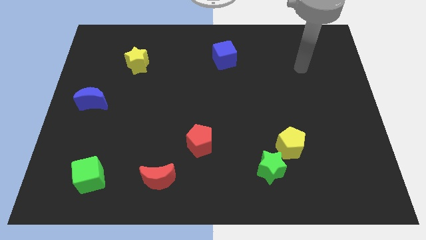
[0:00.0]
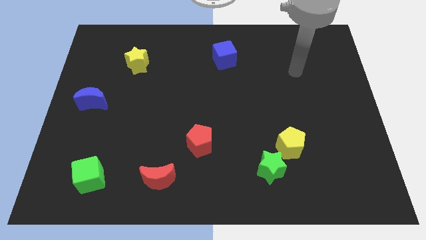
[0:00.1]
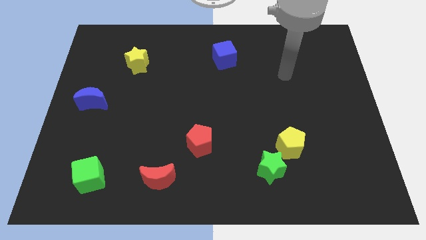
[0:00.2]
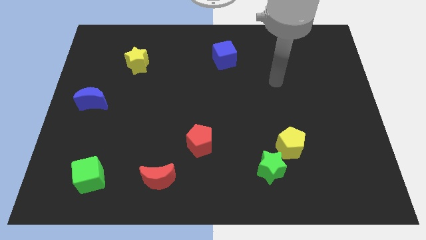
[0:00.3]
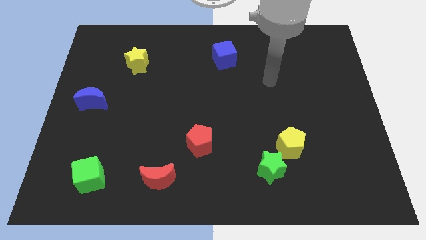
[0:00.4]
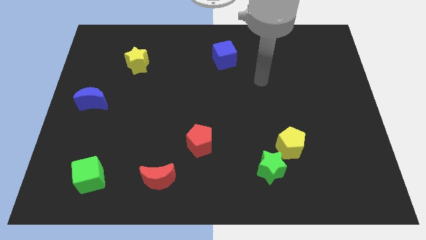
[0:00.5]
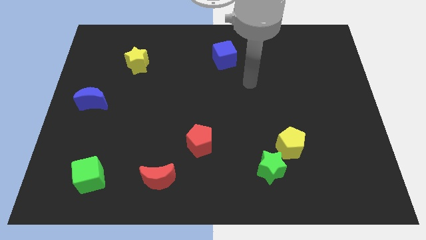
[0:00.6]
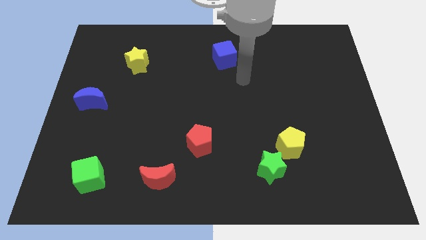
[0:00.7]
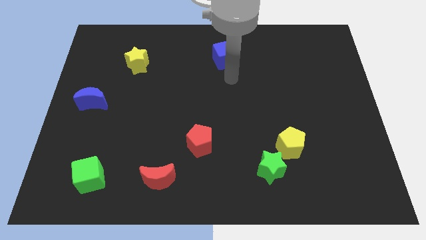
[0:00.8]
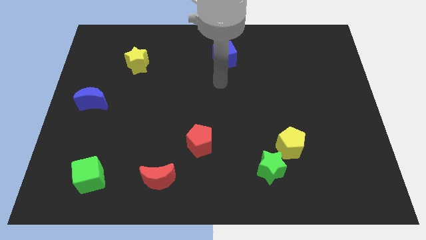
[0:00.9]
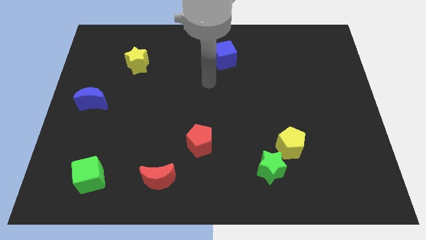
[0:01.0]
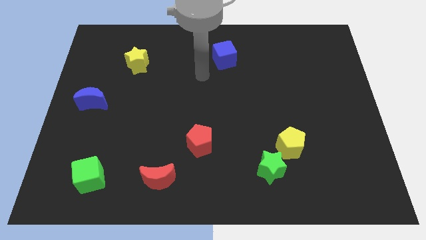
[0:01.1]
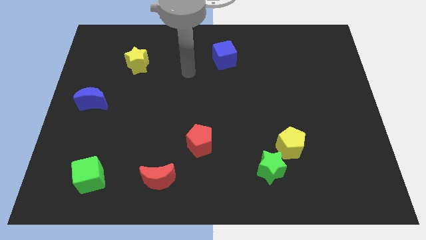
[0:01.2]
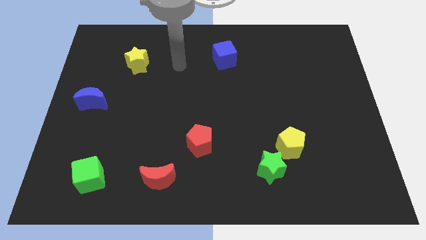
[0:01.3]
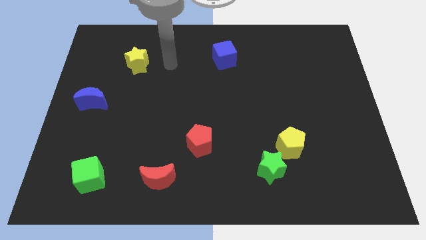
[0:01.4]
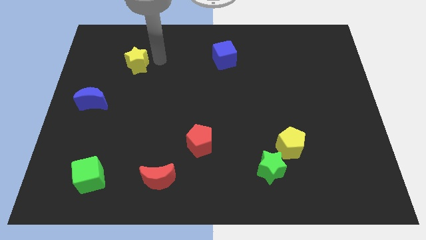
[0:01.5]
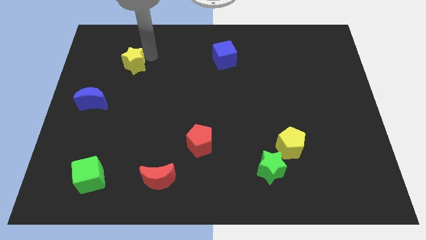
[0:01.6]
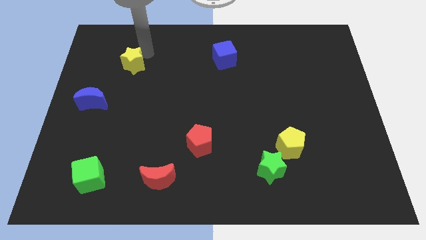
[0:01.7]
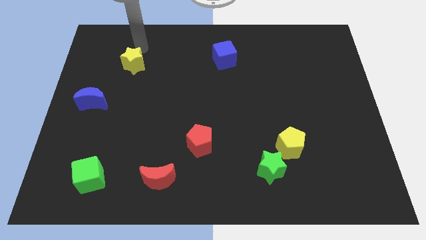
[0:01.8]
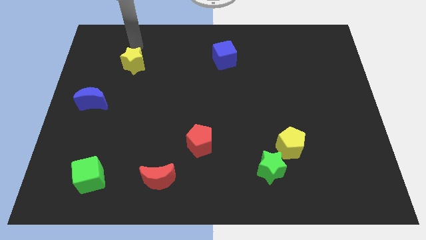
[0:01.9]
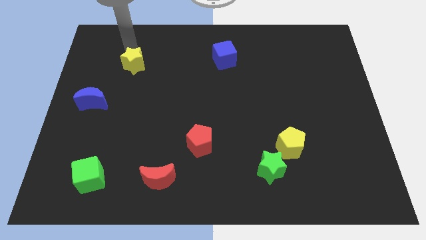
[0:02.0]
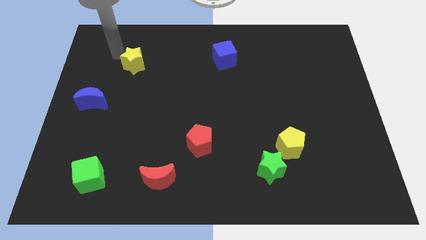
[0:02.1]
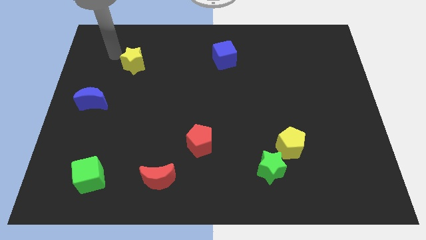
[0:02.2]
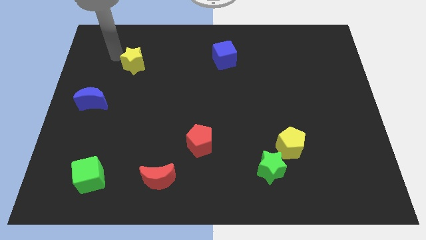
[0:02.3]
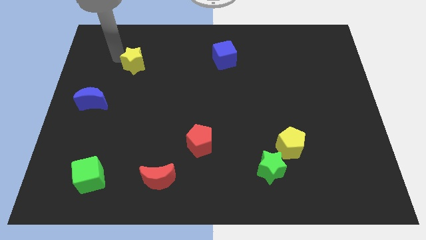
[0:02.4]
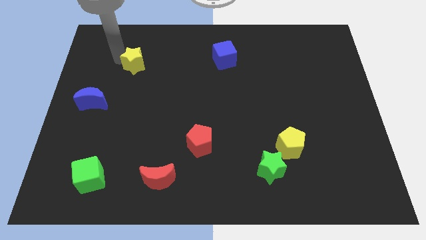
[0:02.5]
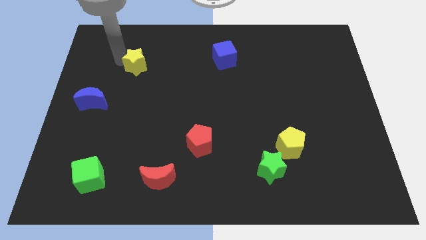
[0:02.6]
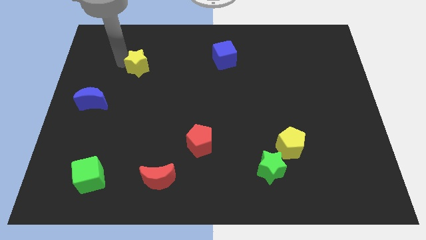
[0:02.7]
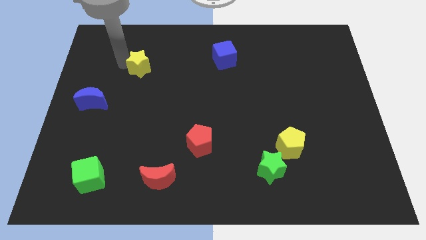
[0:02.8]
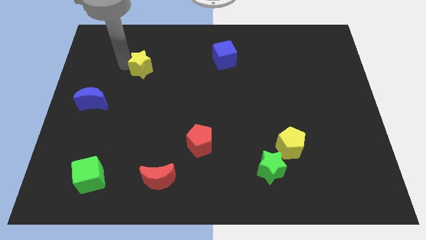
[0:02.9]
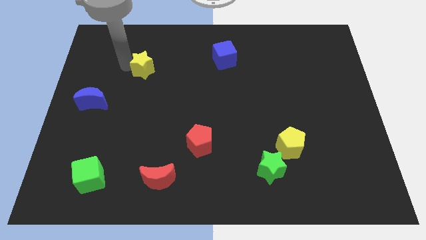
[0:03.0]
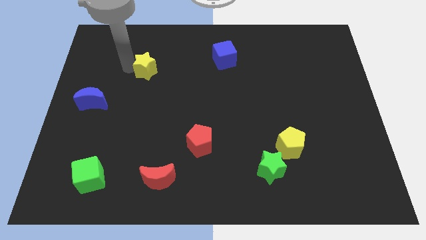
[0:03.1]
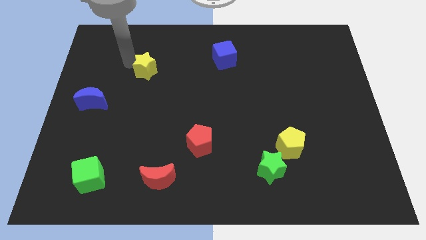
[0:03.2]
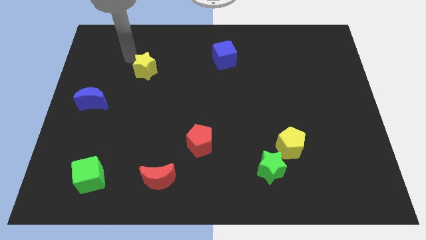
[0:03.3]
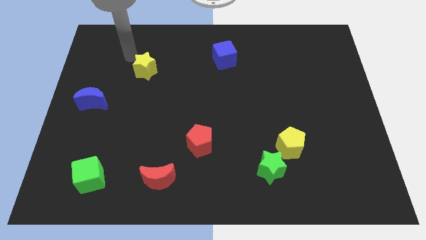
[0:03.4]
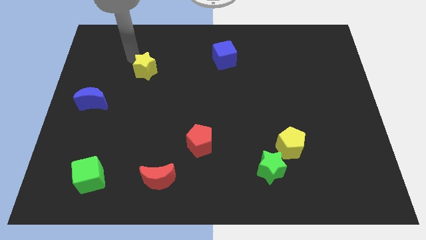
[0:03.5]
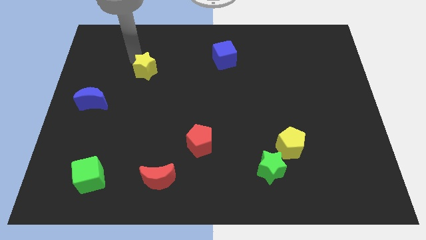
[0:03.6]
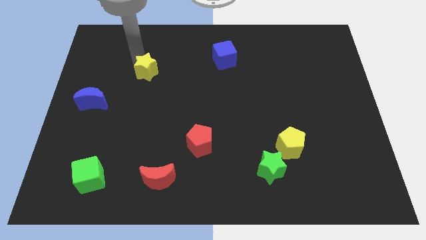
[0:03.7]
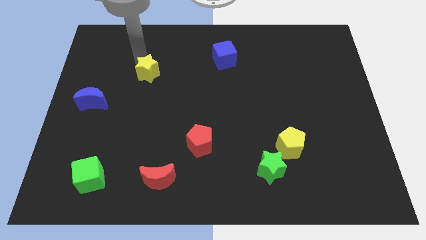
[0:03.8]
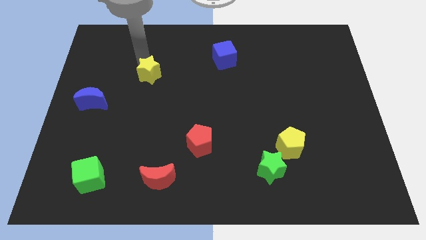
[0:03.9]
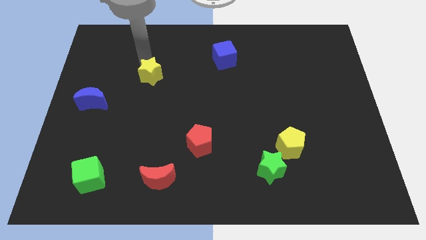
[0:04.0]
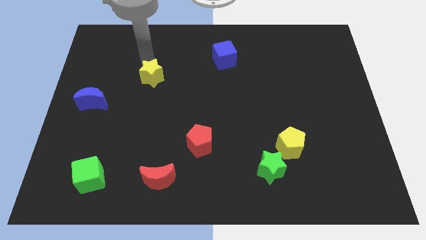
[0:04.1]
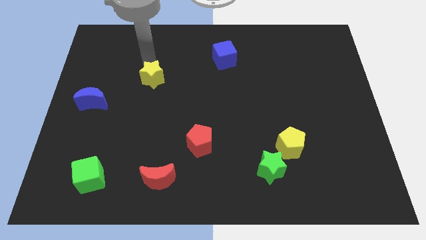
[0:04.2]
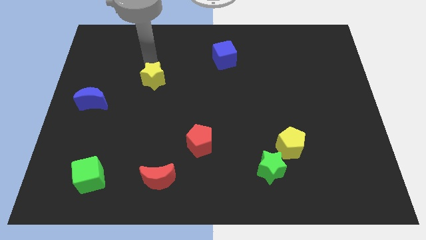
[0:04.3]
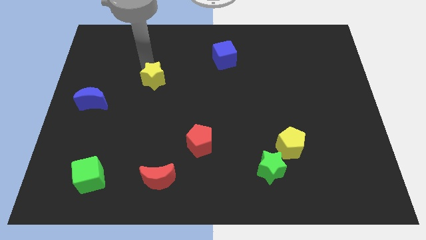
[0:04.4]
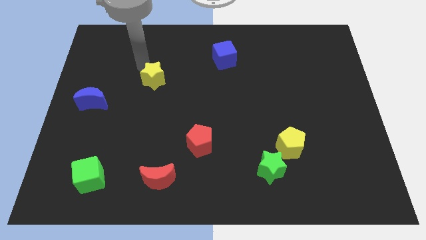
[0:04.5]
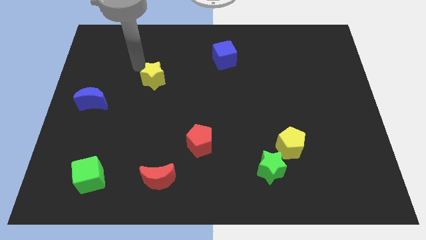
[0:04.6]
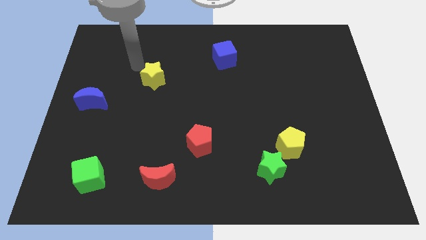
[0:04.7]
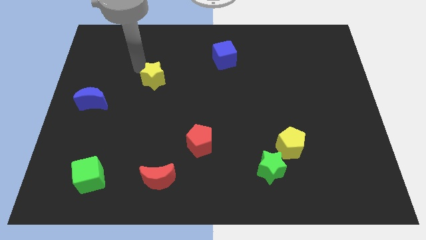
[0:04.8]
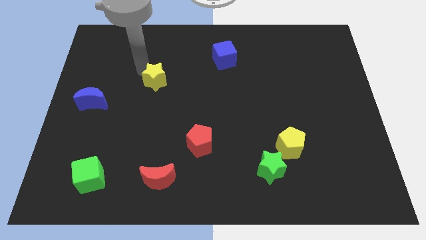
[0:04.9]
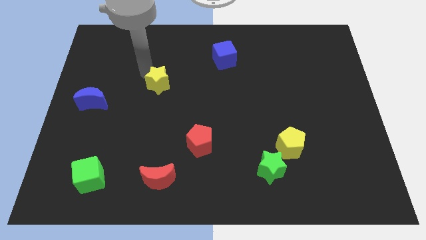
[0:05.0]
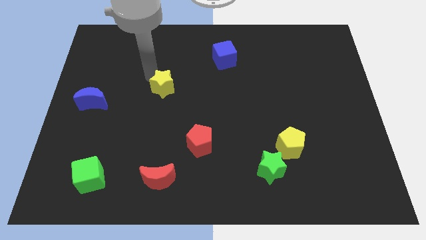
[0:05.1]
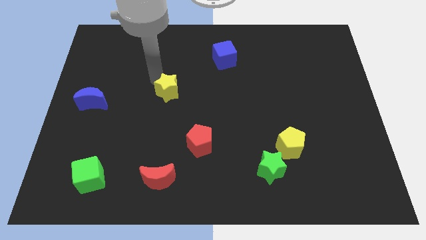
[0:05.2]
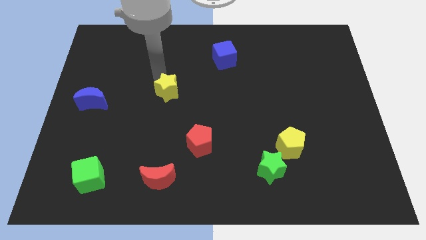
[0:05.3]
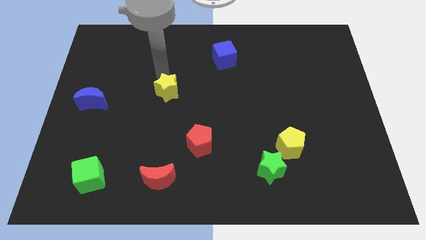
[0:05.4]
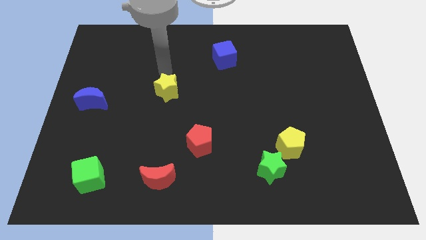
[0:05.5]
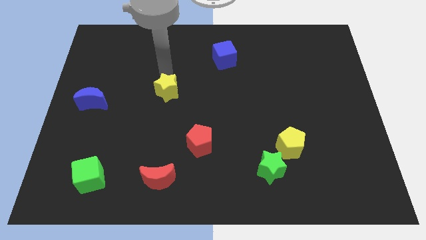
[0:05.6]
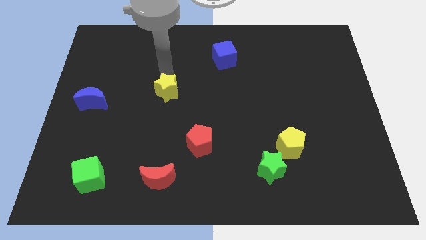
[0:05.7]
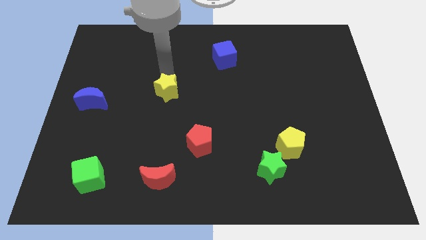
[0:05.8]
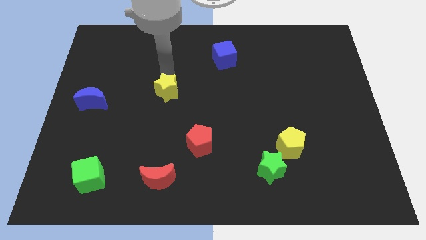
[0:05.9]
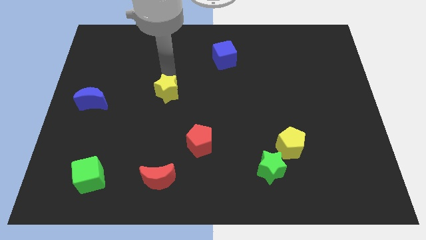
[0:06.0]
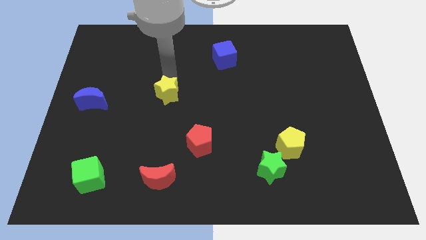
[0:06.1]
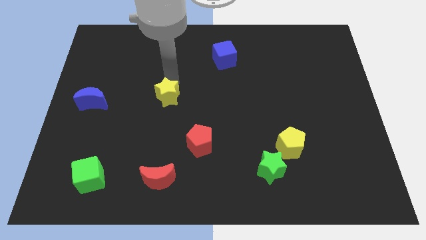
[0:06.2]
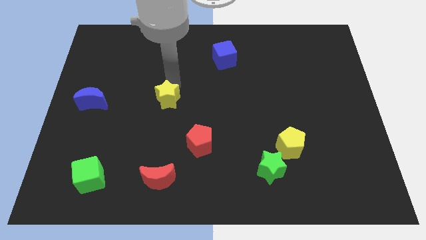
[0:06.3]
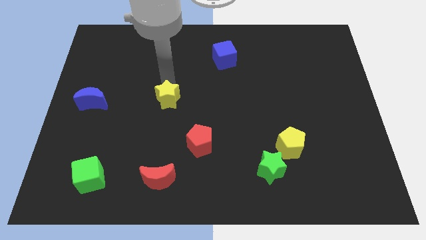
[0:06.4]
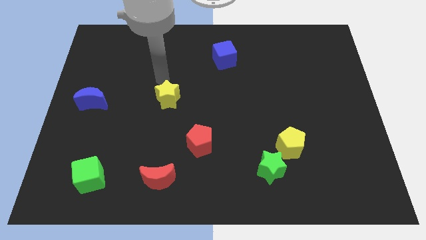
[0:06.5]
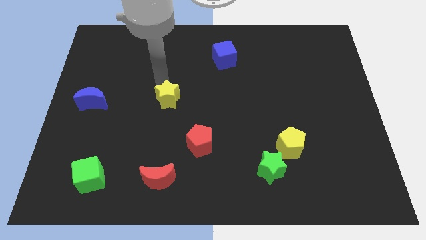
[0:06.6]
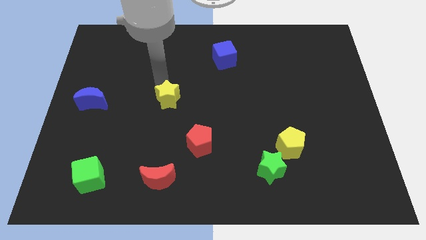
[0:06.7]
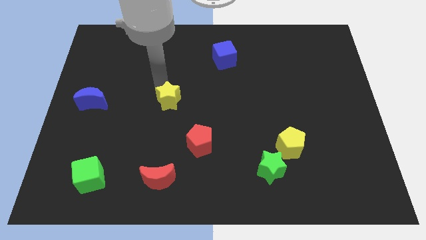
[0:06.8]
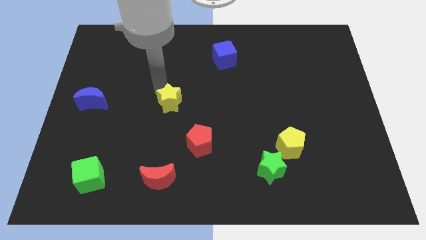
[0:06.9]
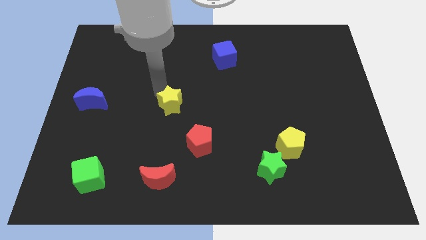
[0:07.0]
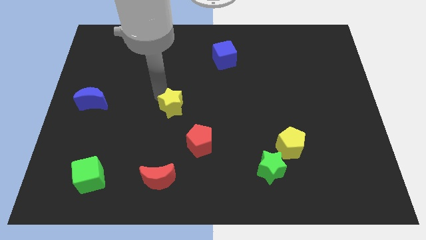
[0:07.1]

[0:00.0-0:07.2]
slide the yellow star to the top left side of the red pentagon

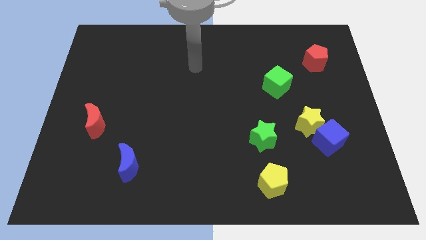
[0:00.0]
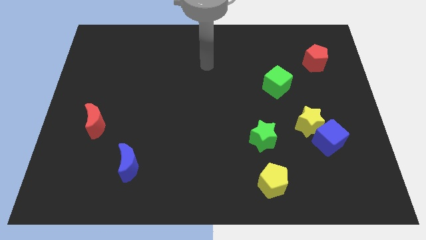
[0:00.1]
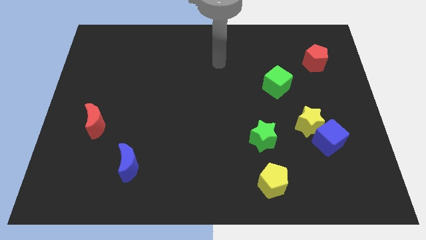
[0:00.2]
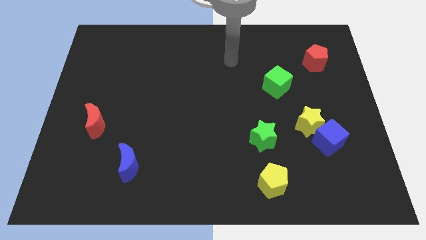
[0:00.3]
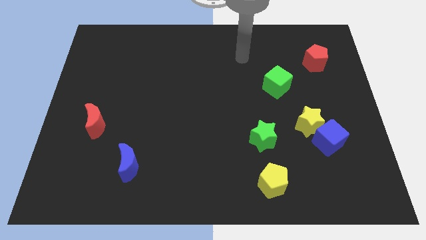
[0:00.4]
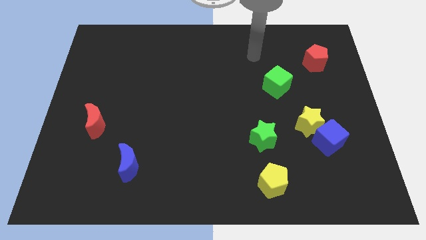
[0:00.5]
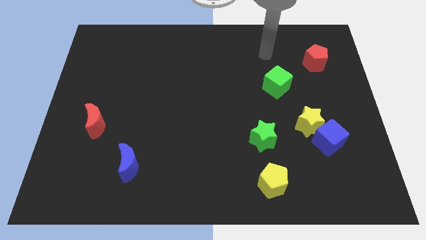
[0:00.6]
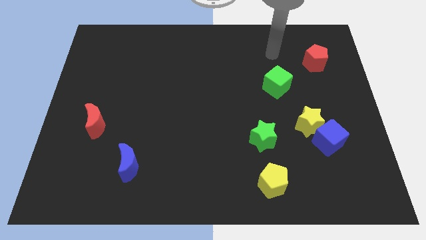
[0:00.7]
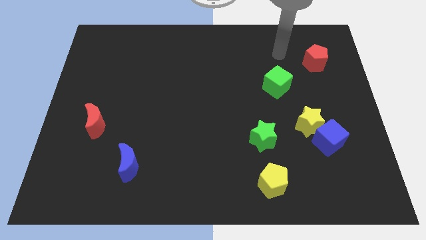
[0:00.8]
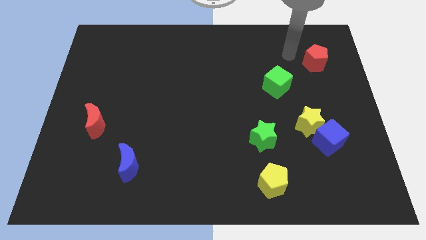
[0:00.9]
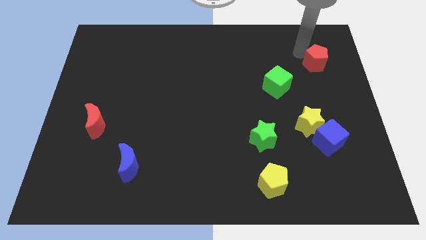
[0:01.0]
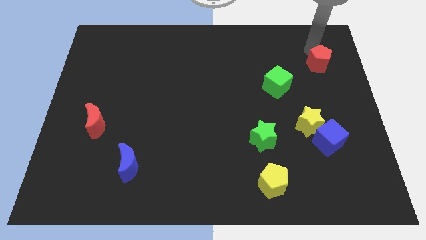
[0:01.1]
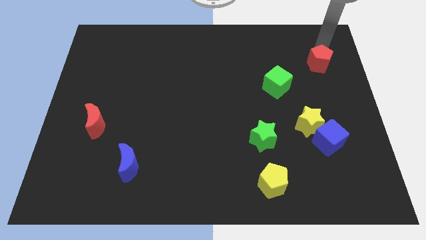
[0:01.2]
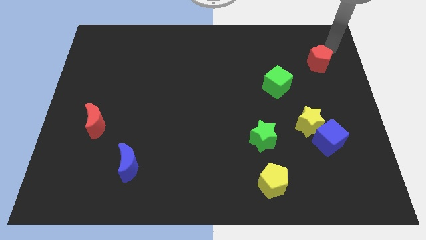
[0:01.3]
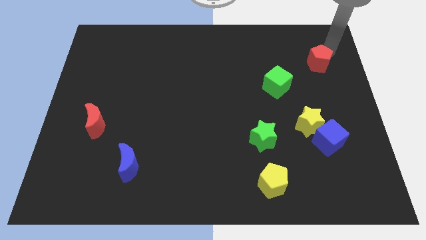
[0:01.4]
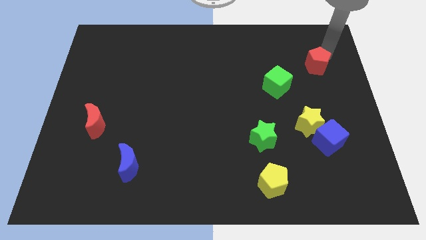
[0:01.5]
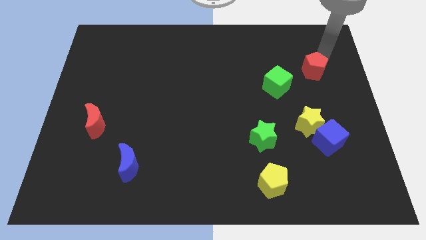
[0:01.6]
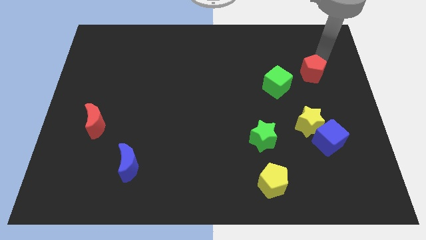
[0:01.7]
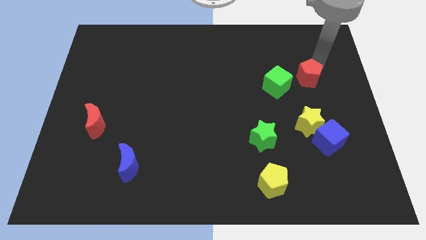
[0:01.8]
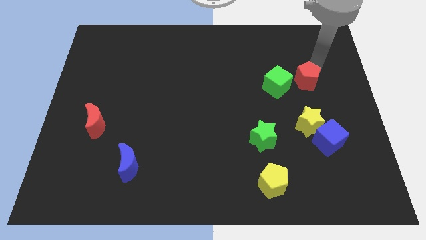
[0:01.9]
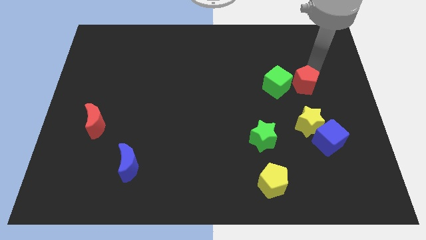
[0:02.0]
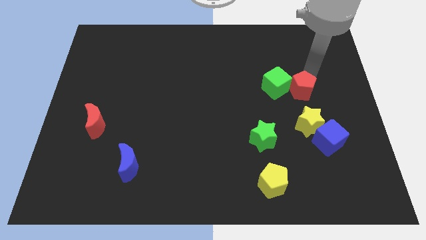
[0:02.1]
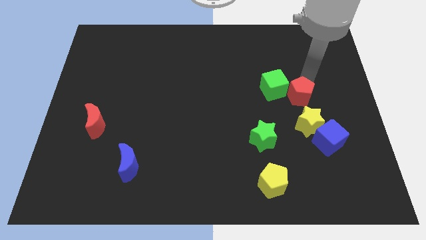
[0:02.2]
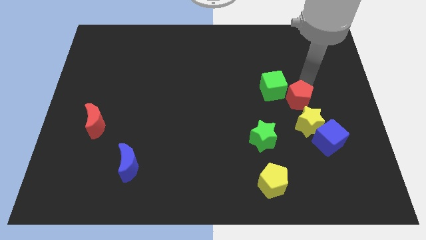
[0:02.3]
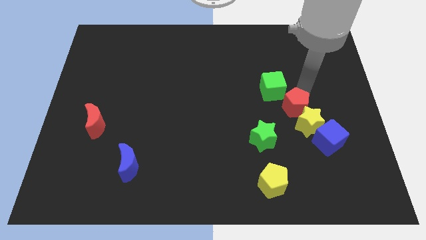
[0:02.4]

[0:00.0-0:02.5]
push the red pentagon below the green cube
